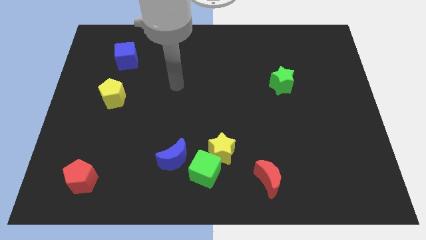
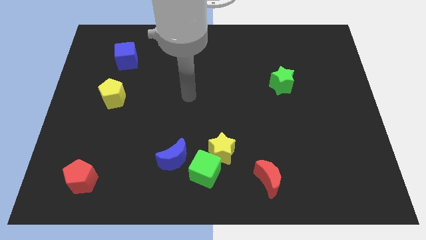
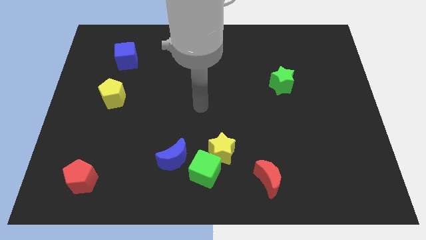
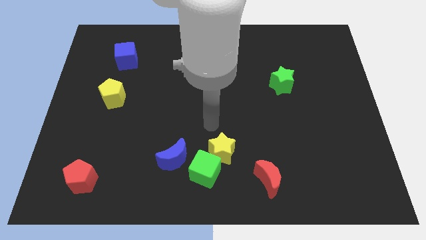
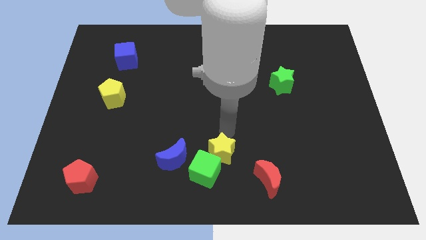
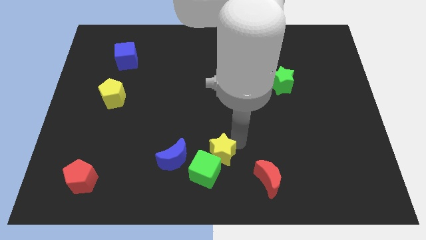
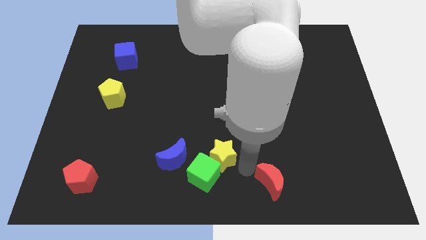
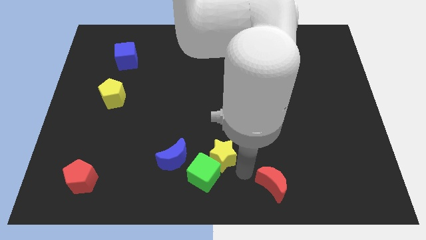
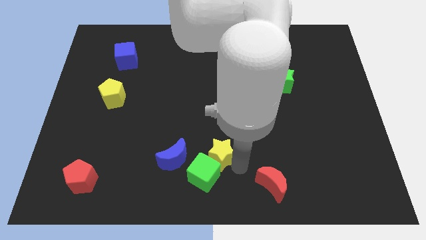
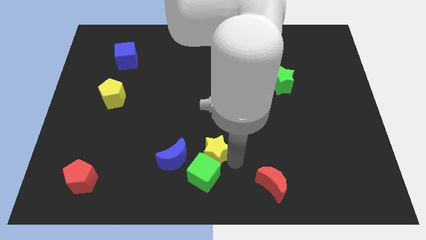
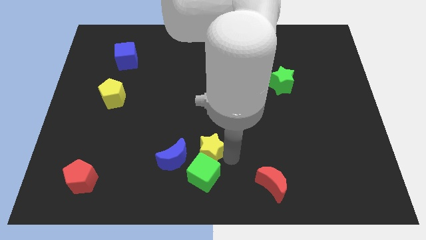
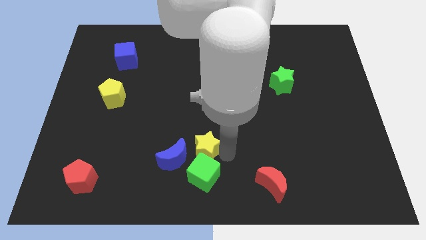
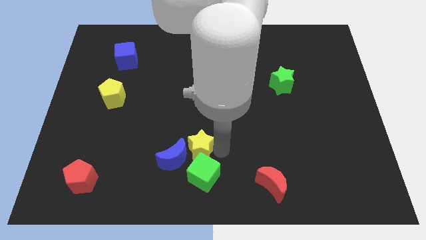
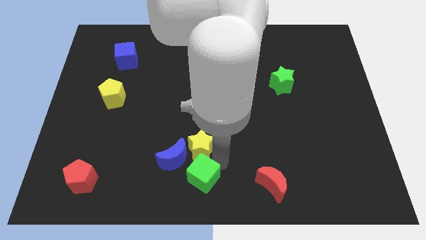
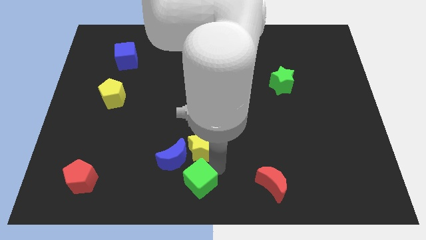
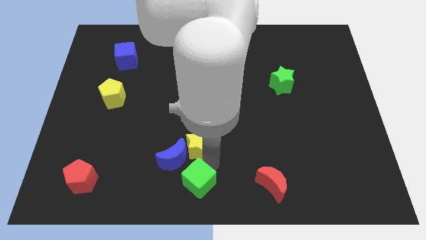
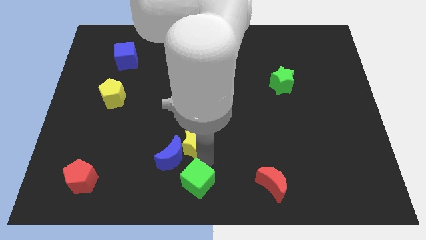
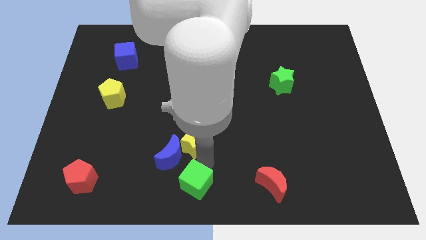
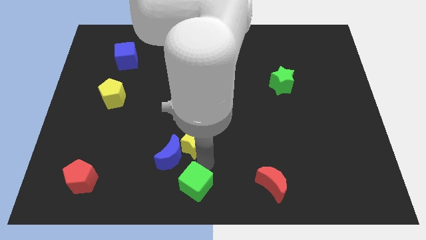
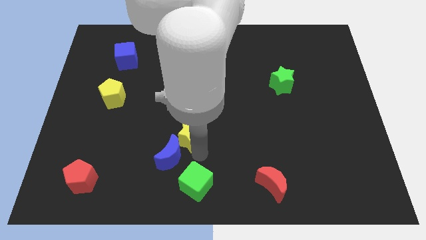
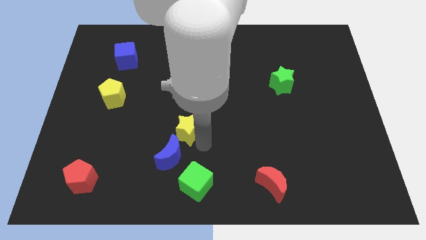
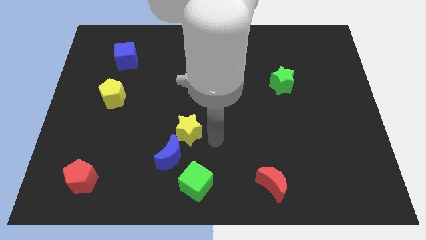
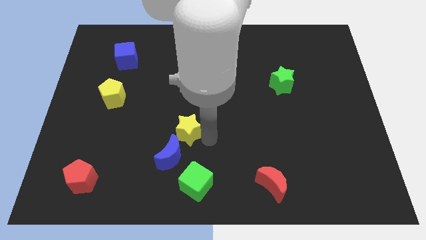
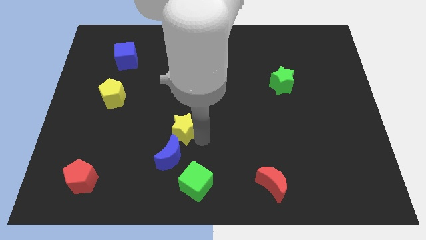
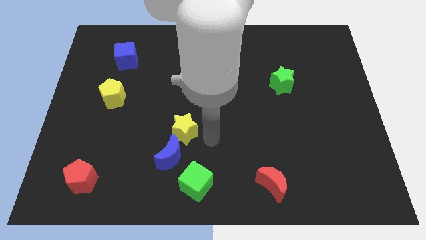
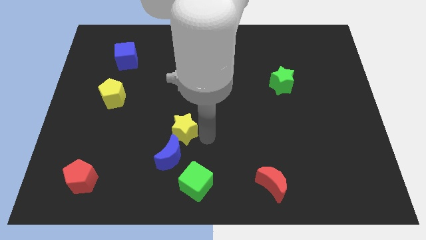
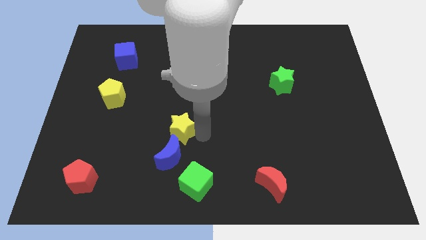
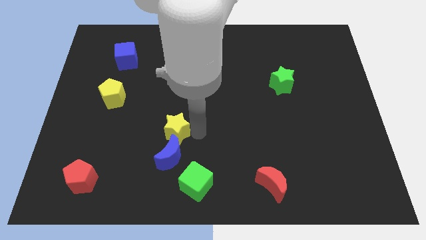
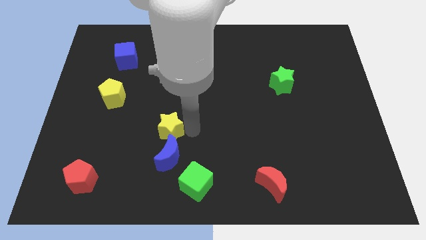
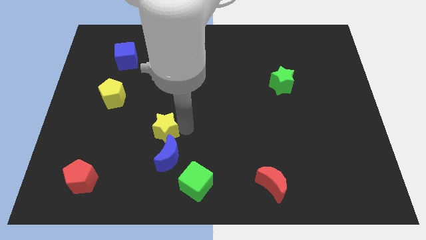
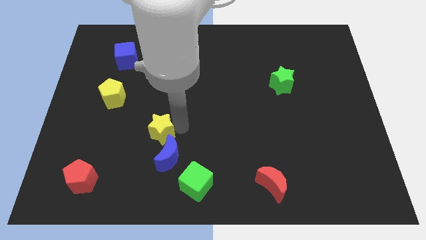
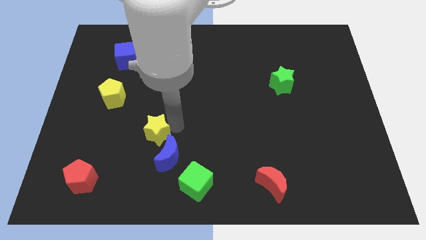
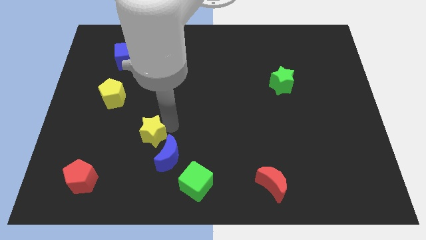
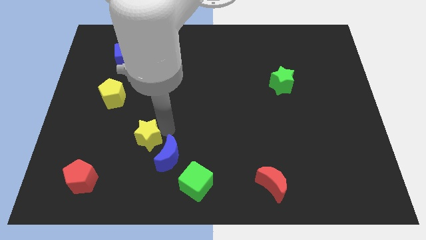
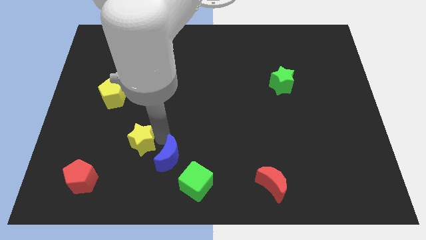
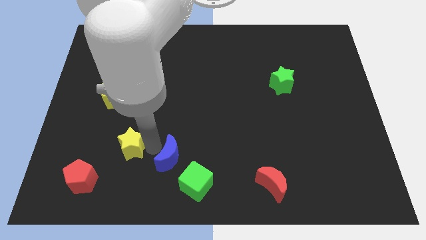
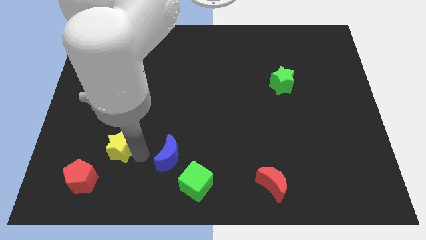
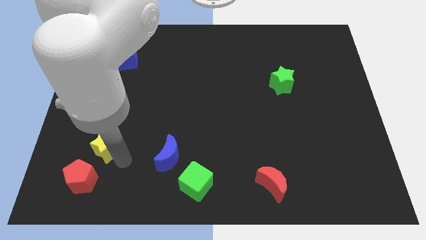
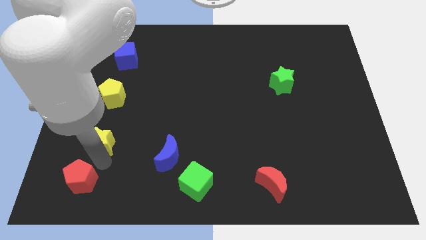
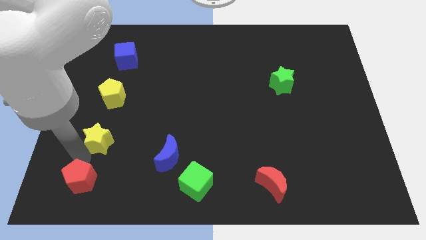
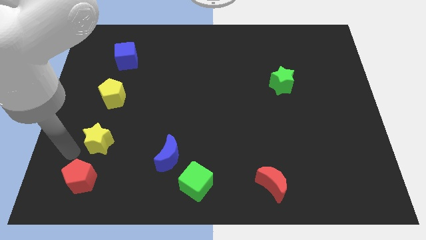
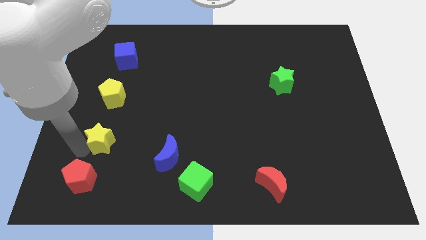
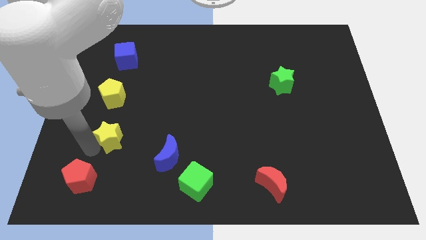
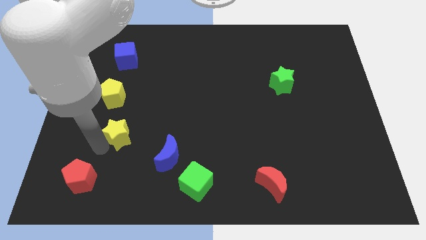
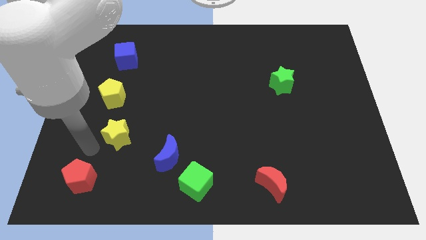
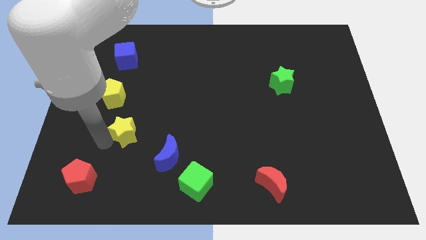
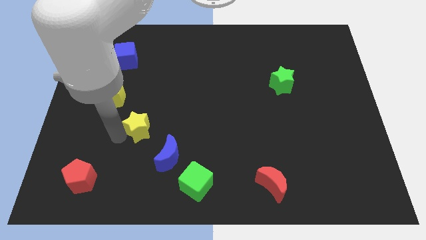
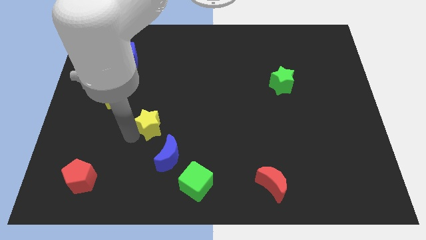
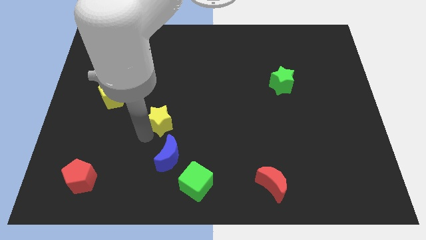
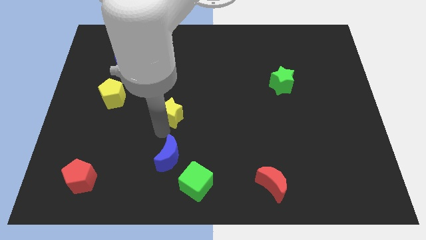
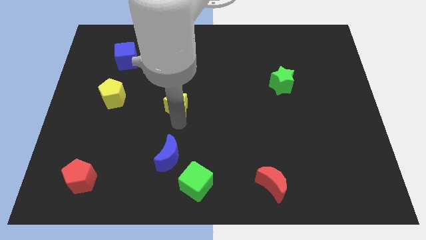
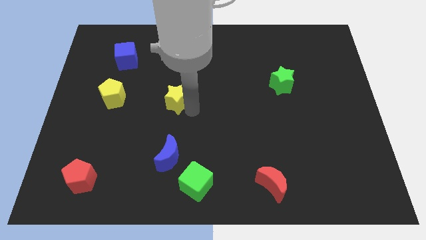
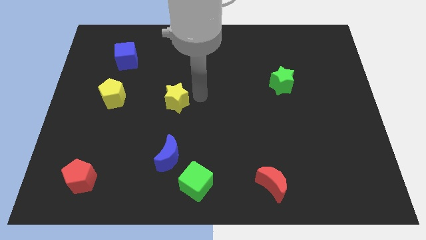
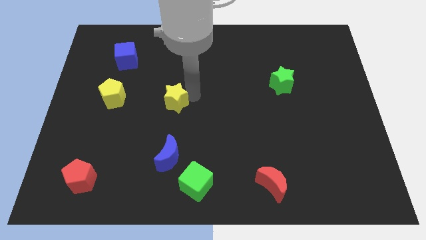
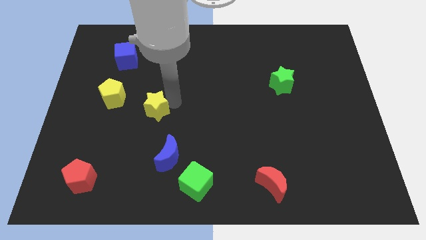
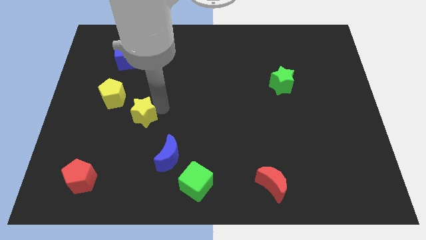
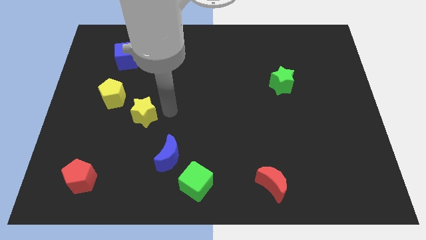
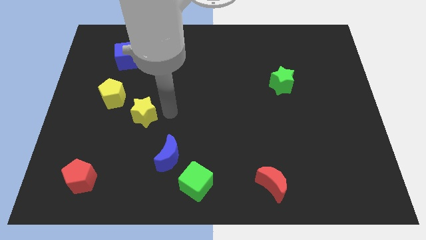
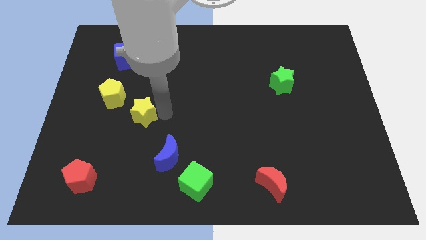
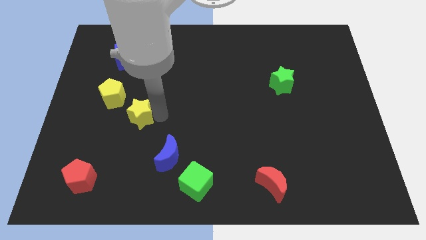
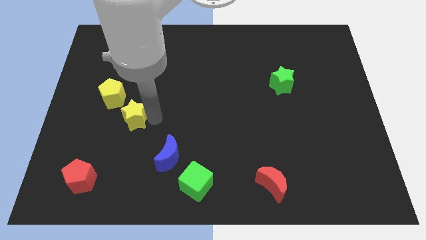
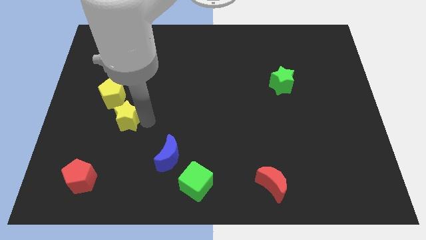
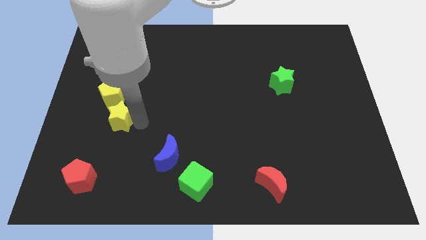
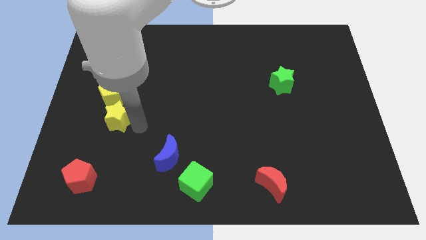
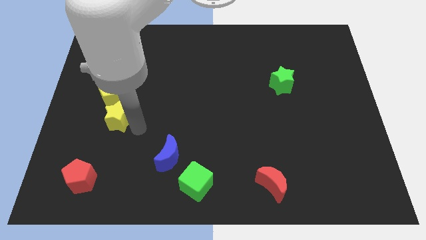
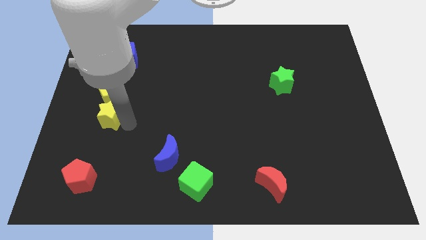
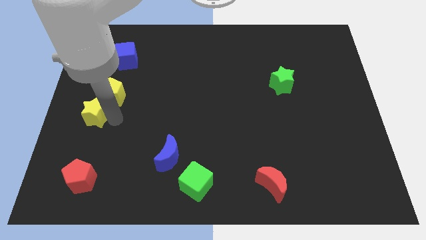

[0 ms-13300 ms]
slide the yellow star to the left side of the board
